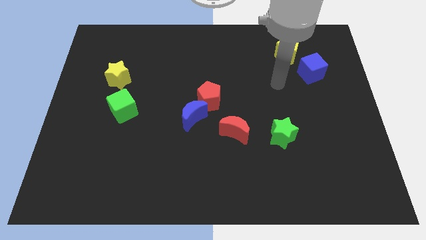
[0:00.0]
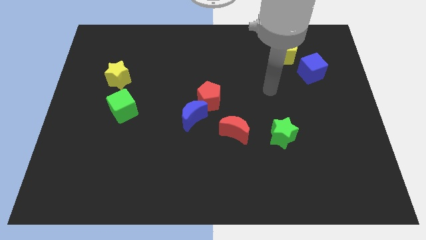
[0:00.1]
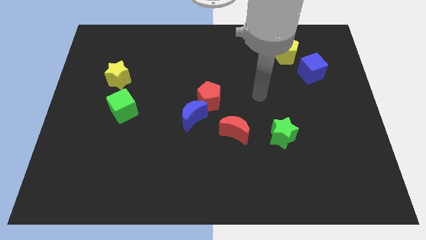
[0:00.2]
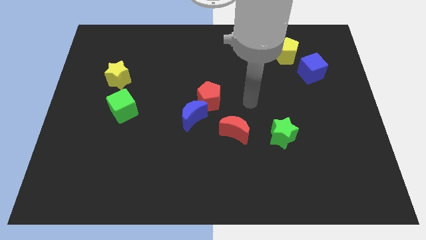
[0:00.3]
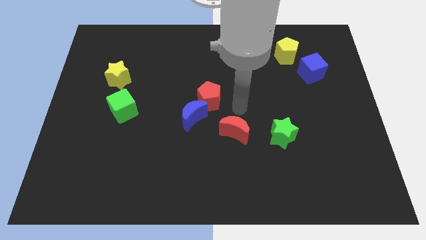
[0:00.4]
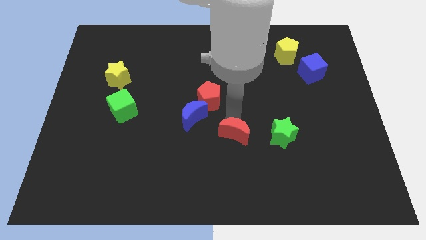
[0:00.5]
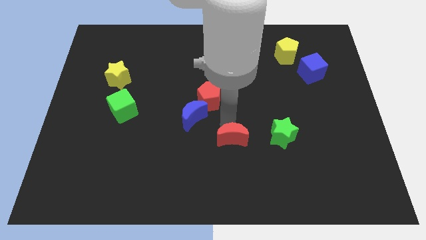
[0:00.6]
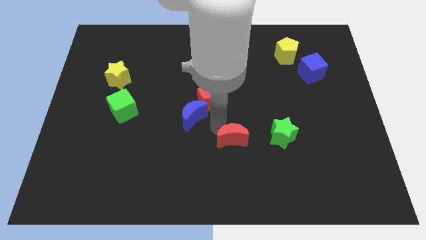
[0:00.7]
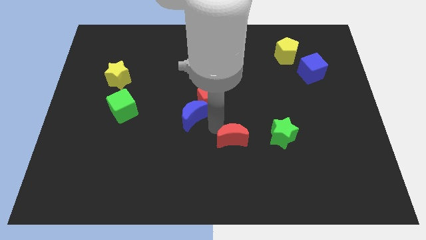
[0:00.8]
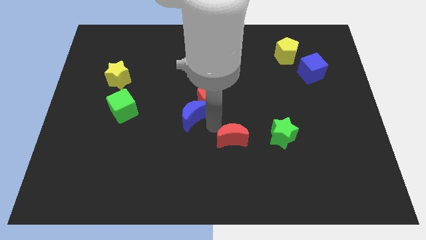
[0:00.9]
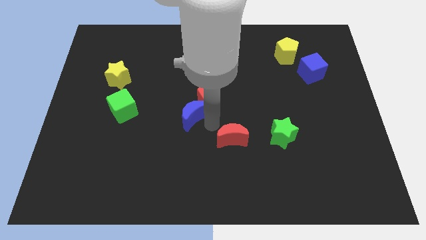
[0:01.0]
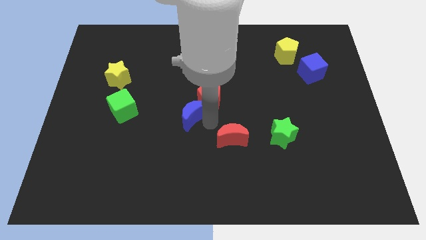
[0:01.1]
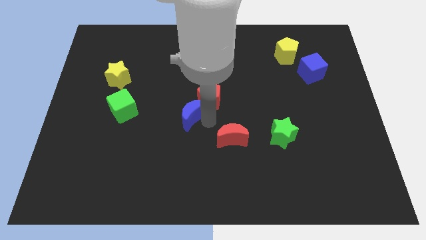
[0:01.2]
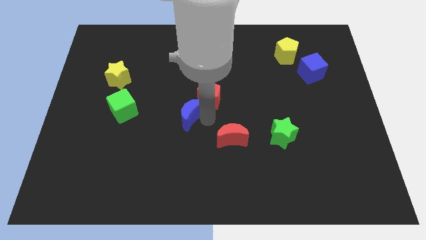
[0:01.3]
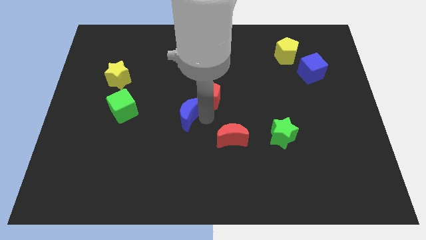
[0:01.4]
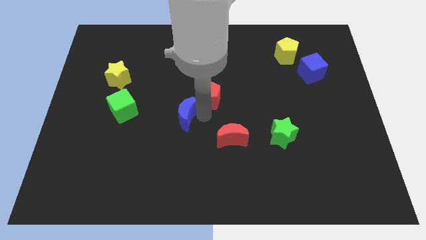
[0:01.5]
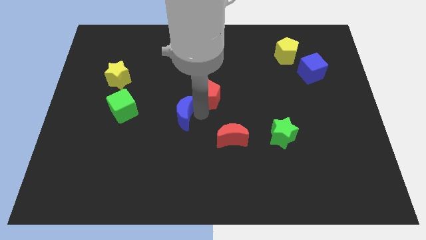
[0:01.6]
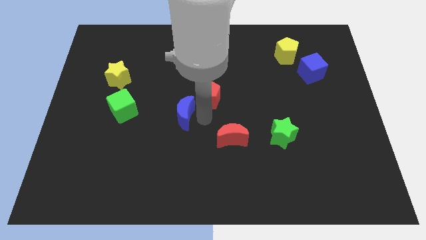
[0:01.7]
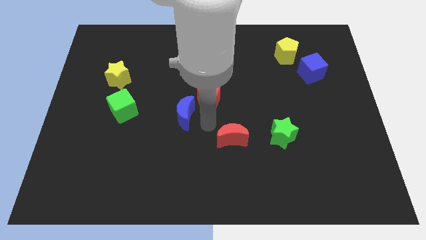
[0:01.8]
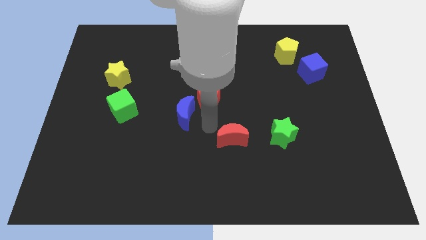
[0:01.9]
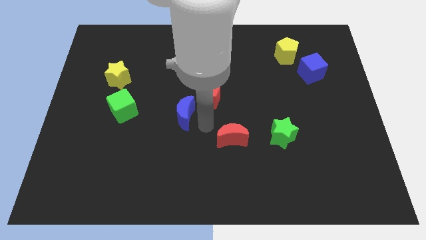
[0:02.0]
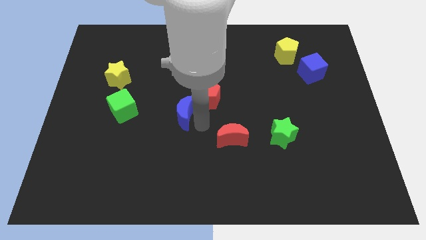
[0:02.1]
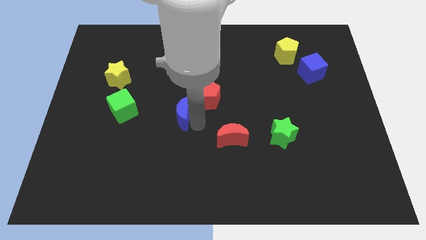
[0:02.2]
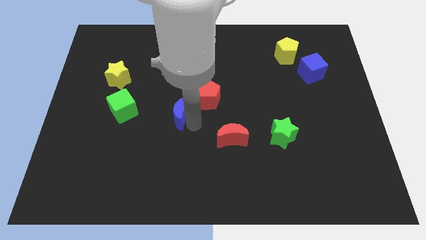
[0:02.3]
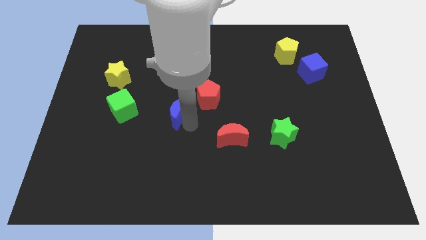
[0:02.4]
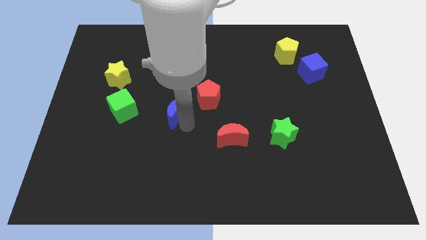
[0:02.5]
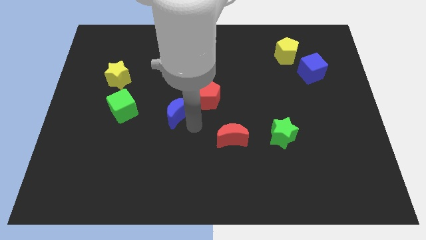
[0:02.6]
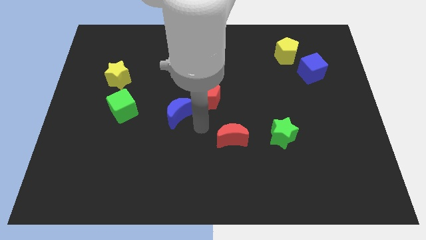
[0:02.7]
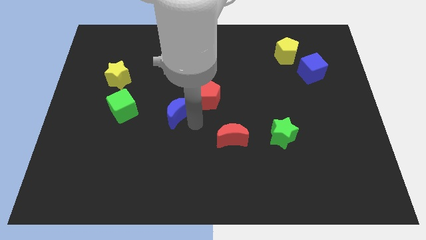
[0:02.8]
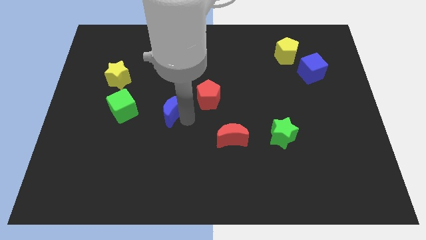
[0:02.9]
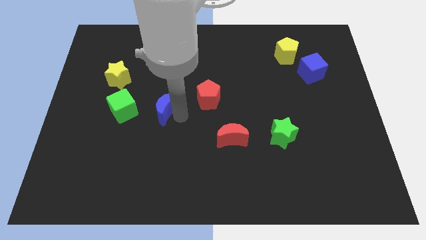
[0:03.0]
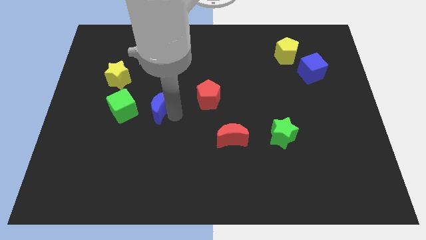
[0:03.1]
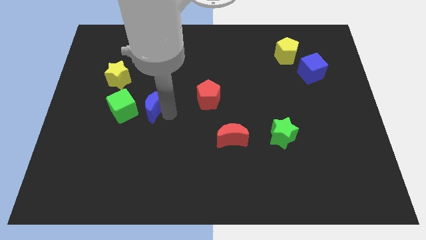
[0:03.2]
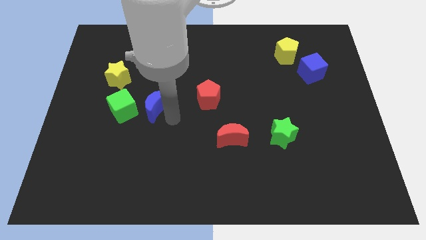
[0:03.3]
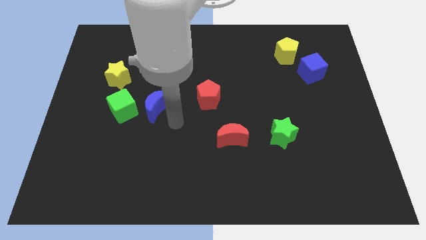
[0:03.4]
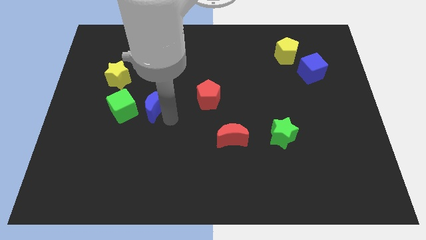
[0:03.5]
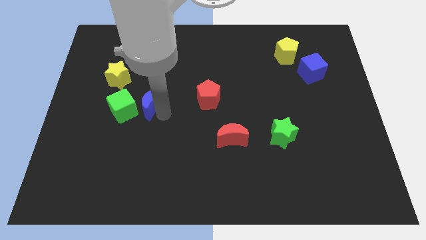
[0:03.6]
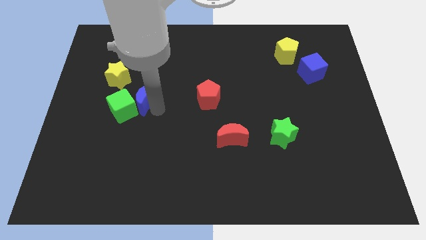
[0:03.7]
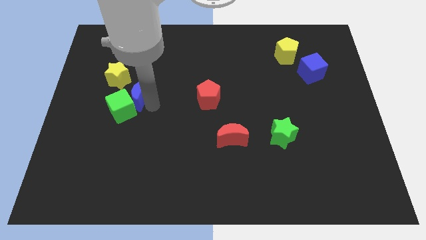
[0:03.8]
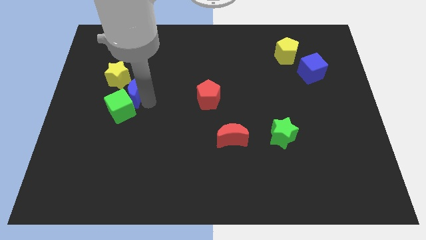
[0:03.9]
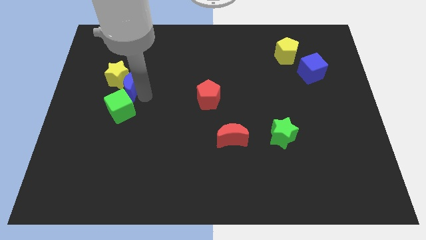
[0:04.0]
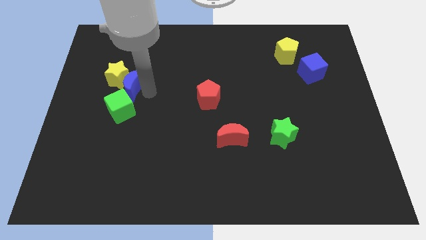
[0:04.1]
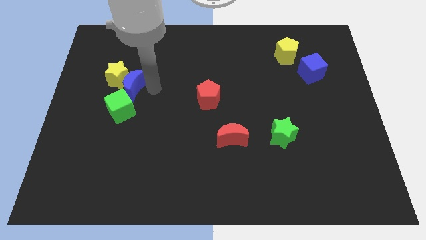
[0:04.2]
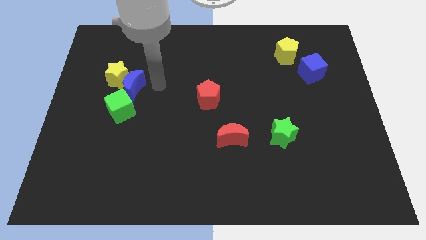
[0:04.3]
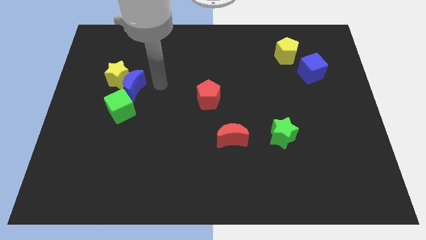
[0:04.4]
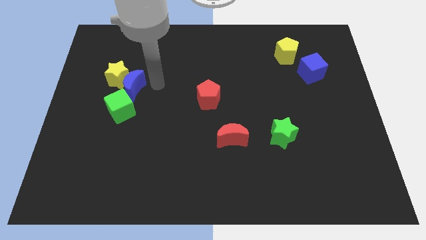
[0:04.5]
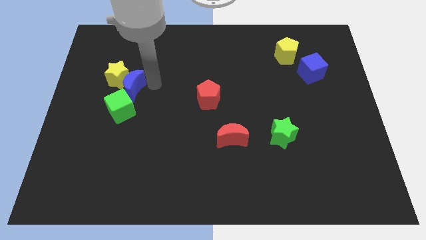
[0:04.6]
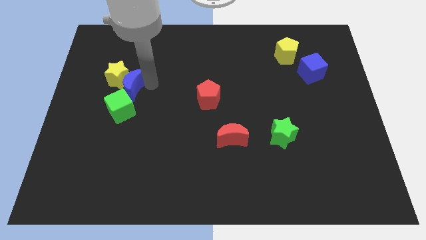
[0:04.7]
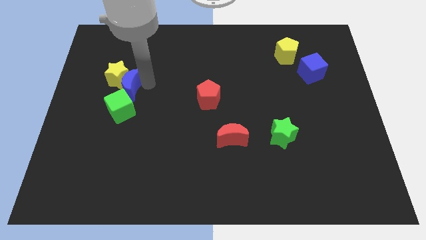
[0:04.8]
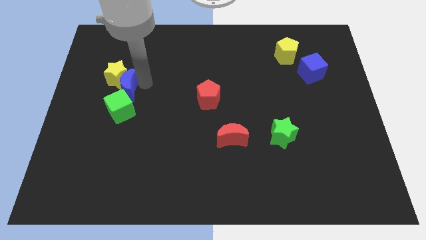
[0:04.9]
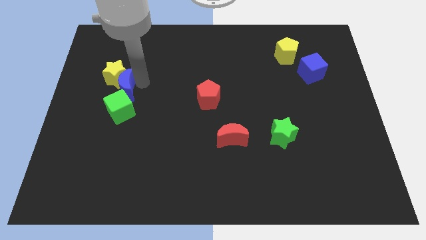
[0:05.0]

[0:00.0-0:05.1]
put the blue moon to the top left of the green cube

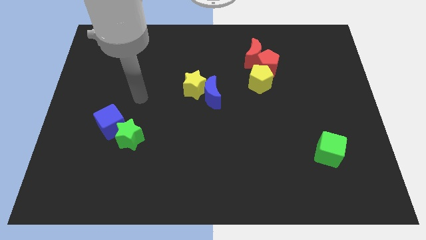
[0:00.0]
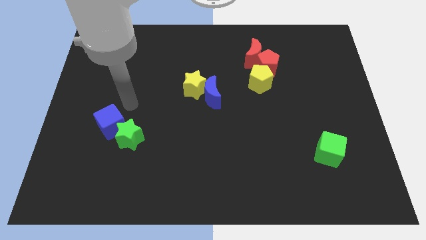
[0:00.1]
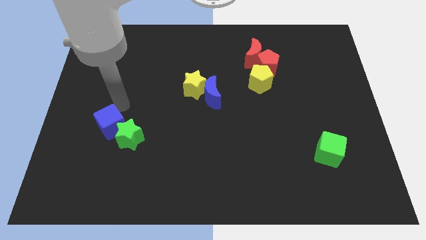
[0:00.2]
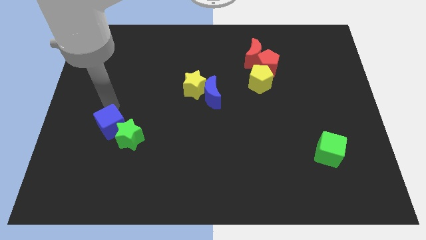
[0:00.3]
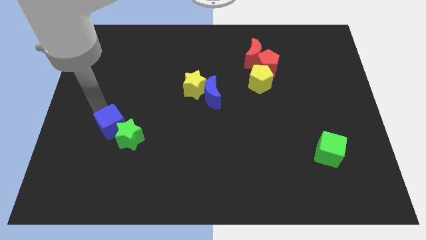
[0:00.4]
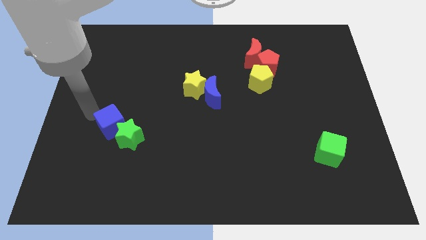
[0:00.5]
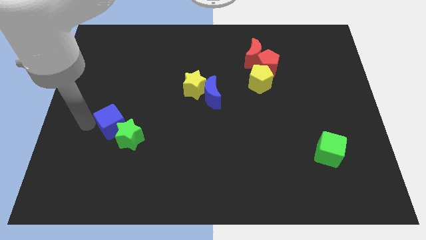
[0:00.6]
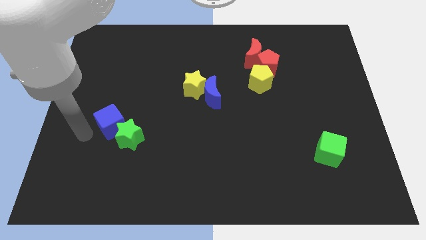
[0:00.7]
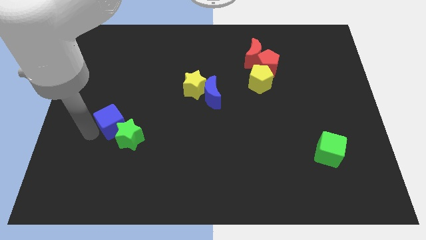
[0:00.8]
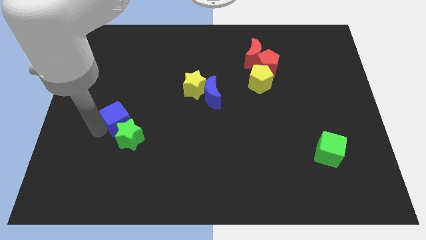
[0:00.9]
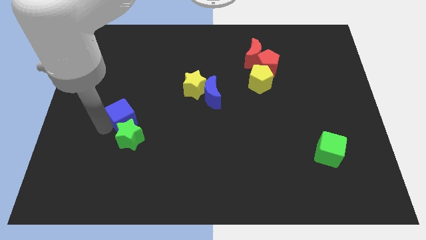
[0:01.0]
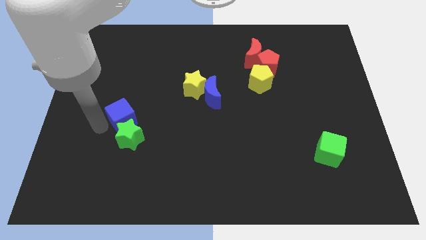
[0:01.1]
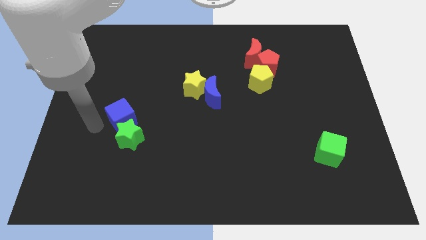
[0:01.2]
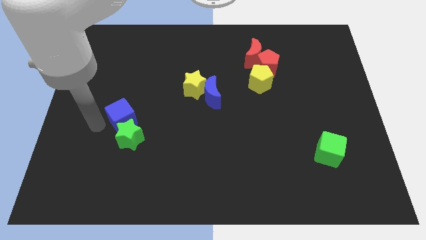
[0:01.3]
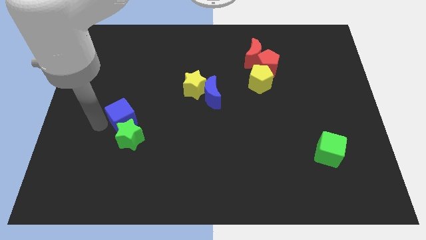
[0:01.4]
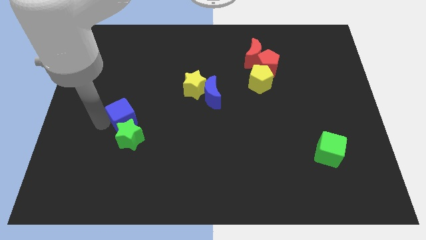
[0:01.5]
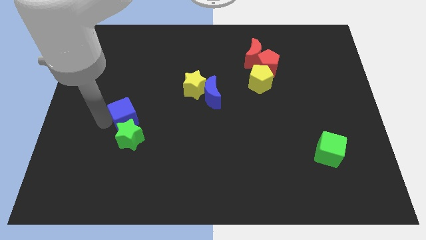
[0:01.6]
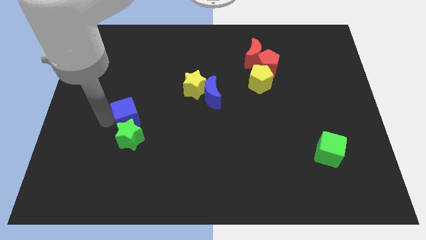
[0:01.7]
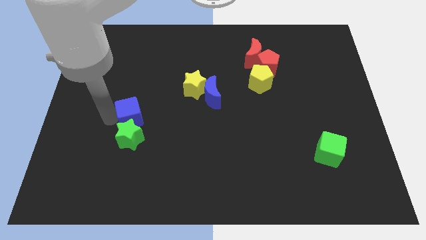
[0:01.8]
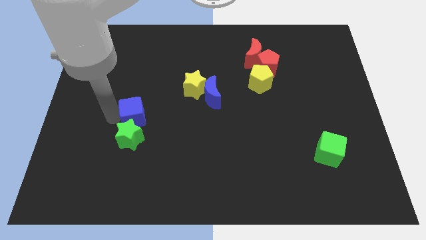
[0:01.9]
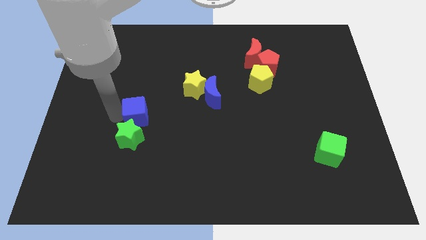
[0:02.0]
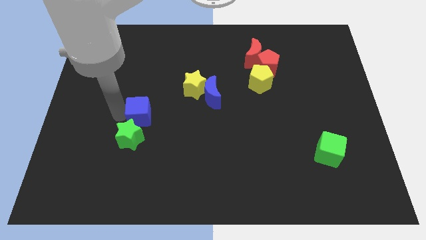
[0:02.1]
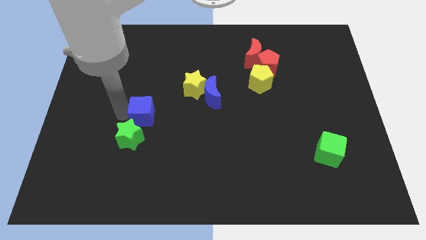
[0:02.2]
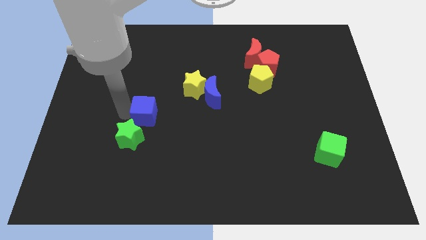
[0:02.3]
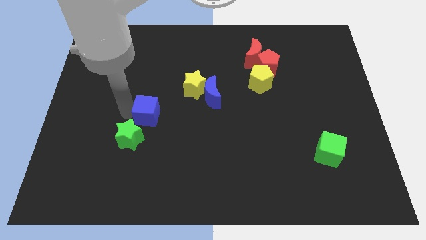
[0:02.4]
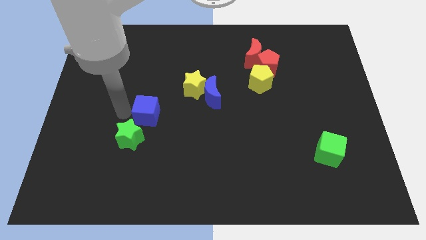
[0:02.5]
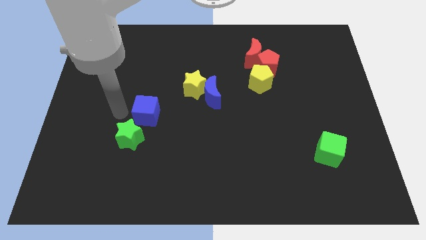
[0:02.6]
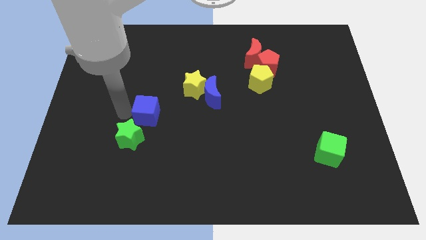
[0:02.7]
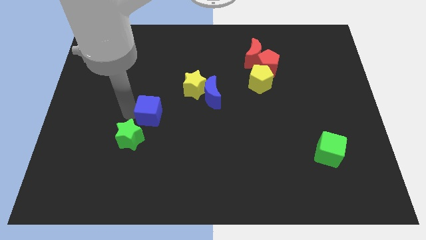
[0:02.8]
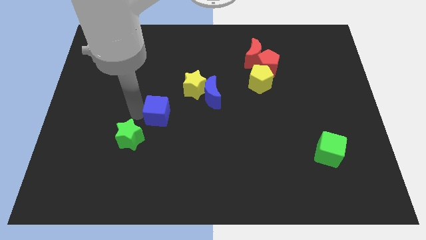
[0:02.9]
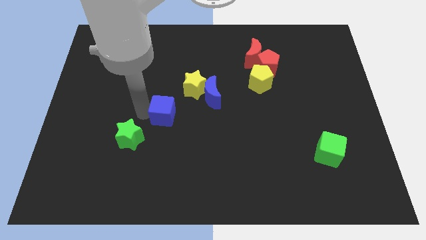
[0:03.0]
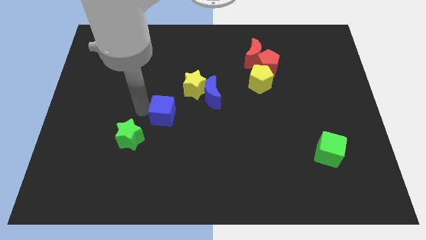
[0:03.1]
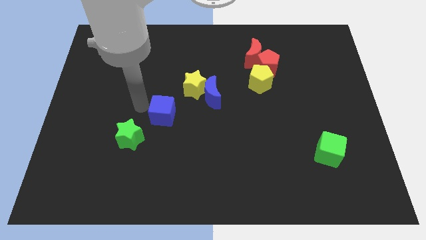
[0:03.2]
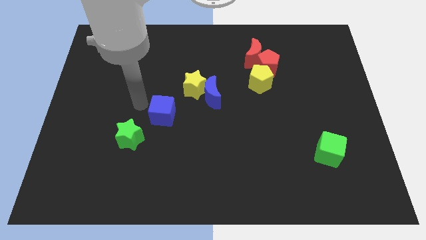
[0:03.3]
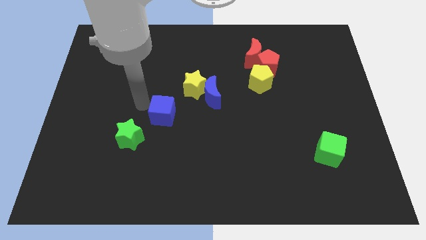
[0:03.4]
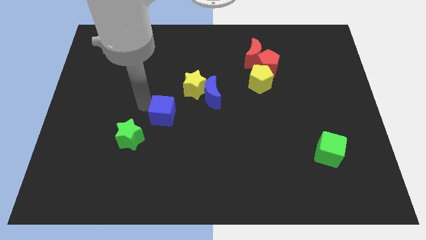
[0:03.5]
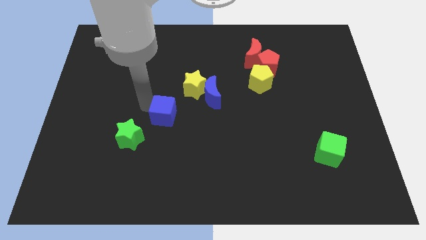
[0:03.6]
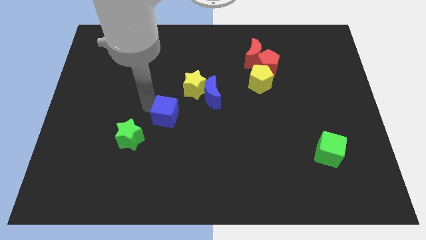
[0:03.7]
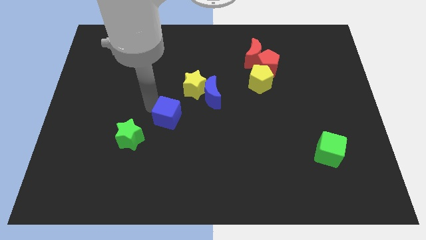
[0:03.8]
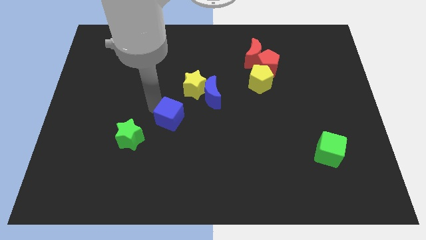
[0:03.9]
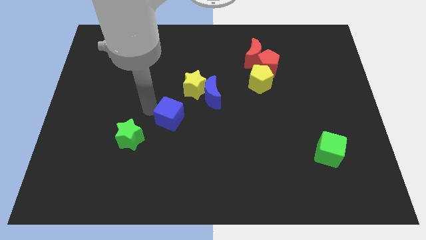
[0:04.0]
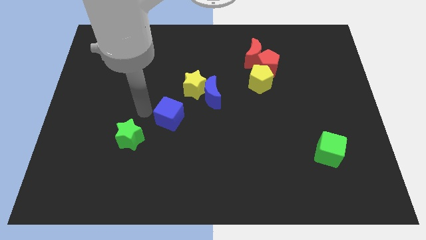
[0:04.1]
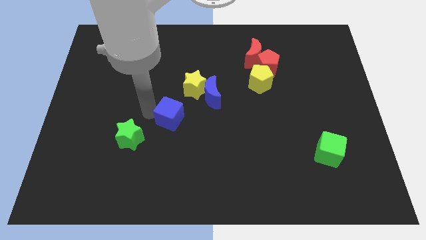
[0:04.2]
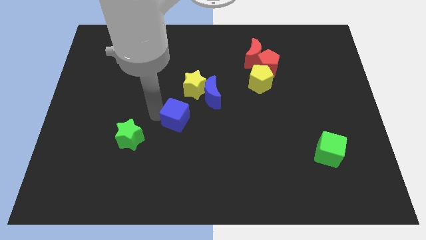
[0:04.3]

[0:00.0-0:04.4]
slide the blue cube to the bottom of the yellow star
